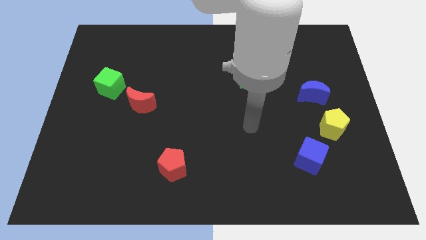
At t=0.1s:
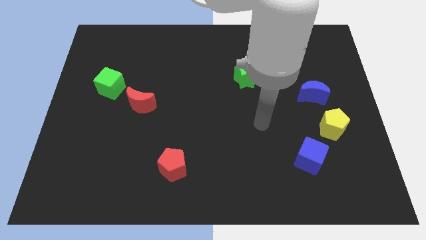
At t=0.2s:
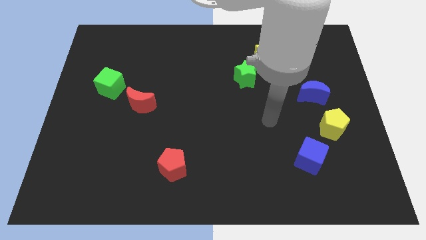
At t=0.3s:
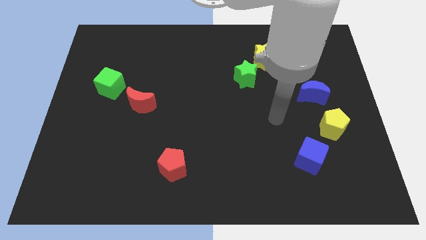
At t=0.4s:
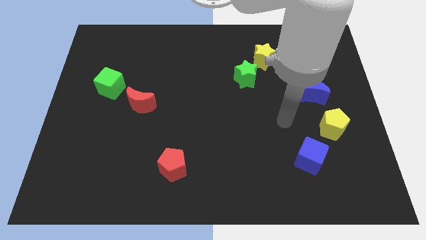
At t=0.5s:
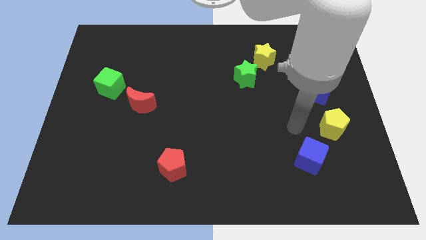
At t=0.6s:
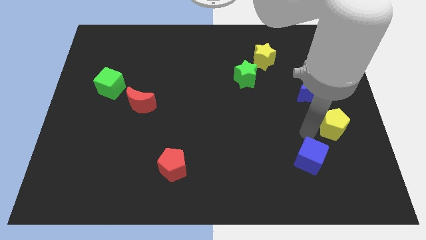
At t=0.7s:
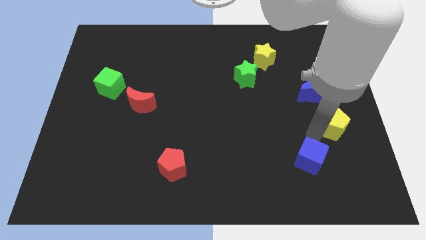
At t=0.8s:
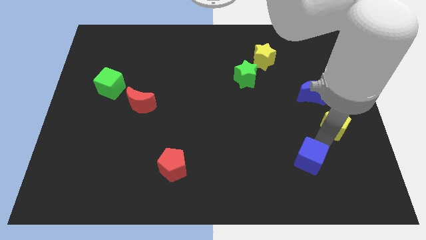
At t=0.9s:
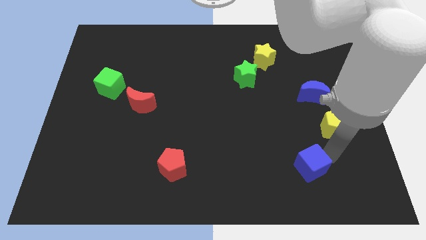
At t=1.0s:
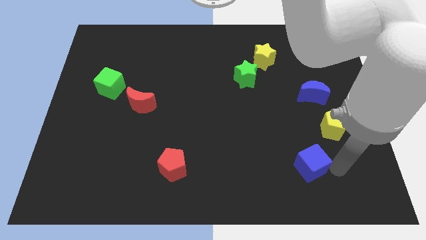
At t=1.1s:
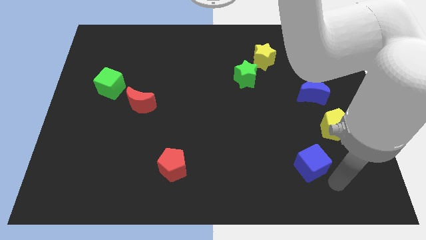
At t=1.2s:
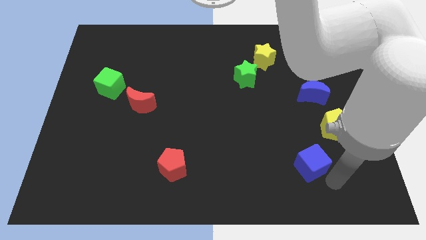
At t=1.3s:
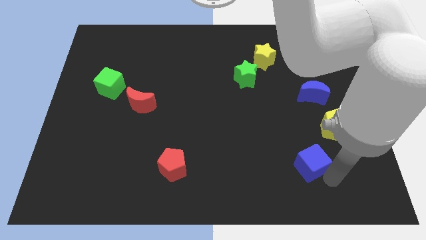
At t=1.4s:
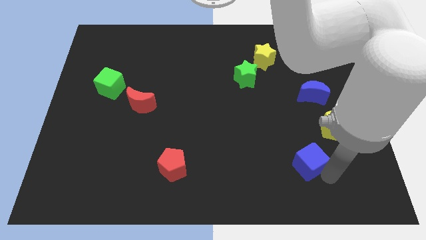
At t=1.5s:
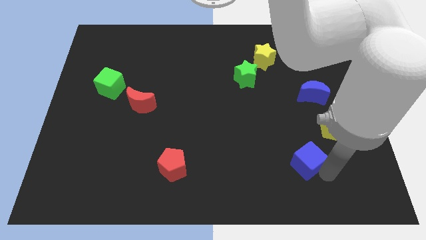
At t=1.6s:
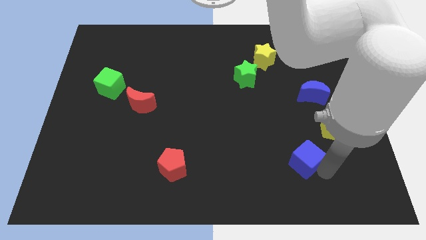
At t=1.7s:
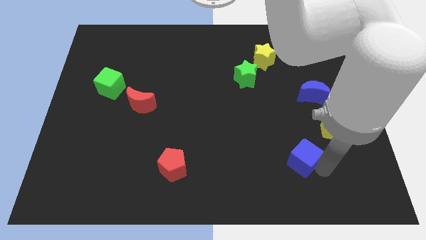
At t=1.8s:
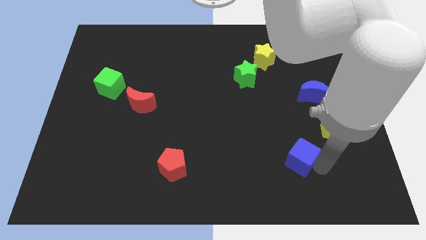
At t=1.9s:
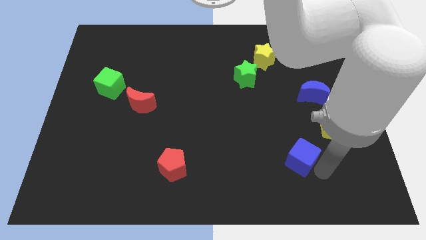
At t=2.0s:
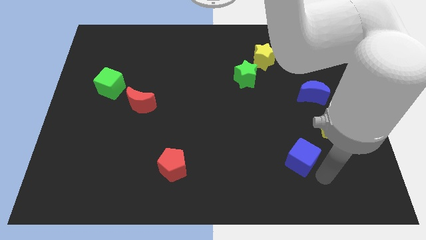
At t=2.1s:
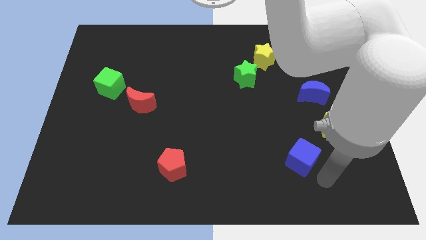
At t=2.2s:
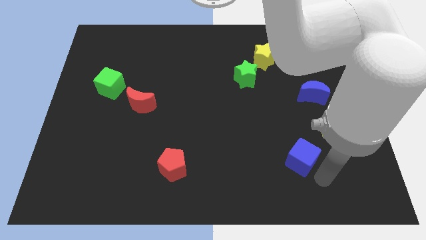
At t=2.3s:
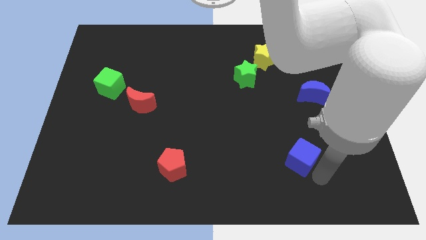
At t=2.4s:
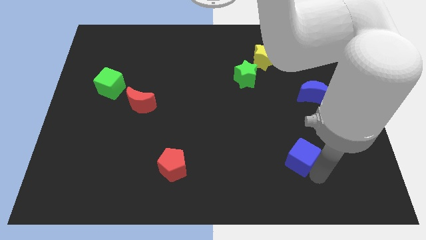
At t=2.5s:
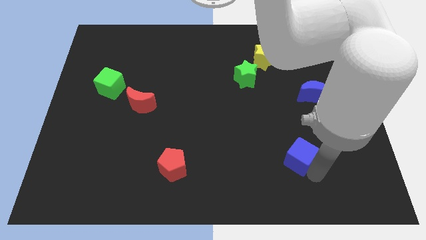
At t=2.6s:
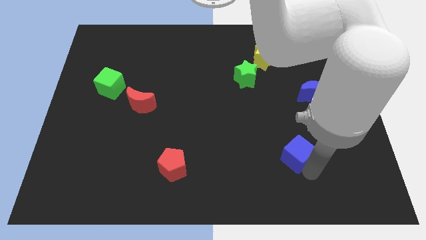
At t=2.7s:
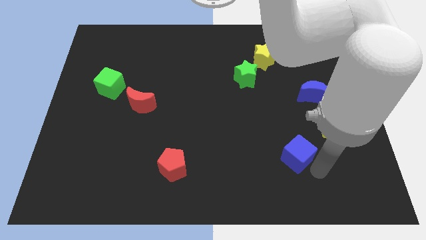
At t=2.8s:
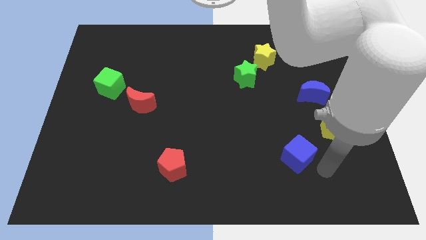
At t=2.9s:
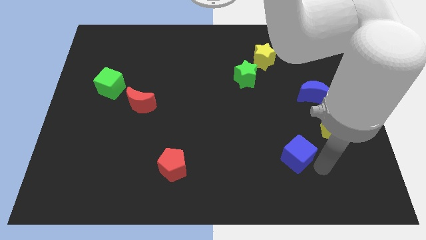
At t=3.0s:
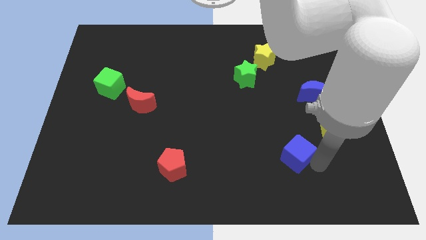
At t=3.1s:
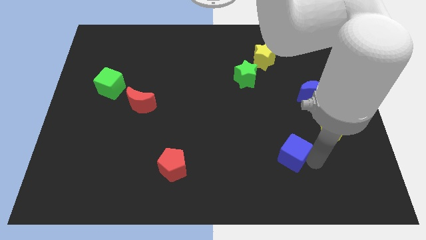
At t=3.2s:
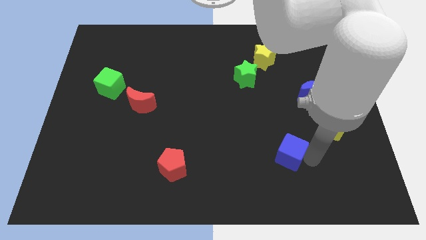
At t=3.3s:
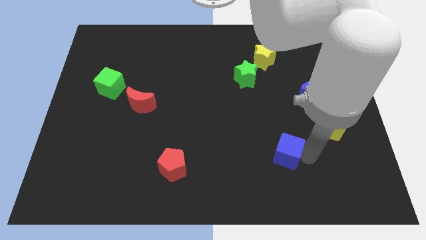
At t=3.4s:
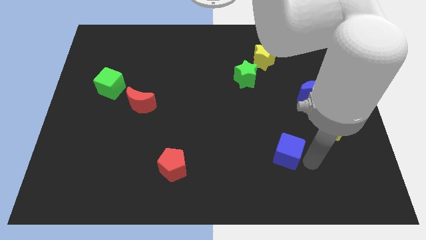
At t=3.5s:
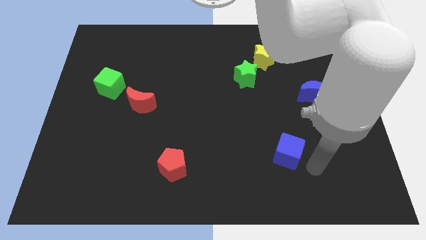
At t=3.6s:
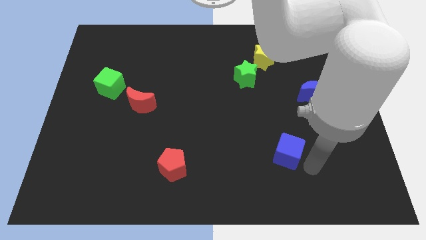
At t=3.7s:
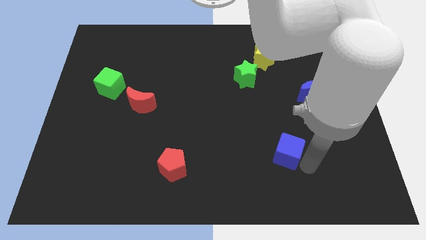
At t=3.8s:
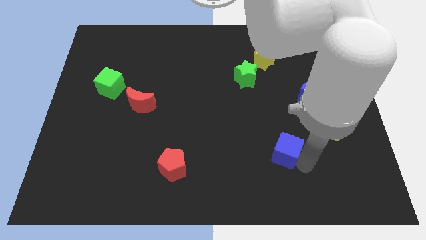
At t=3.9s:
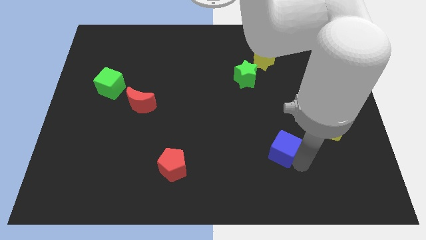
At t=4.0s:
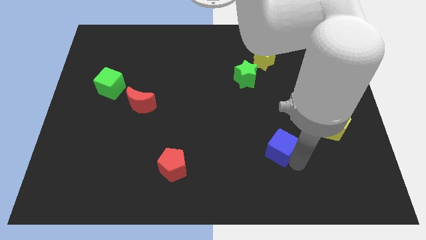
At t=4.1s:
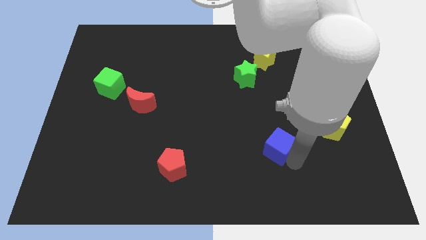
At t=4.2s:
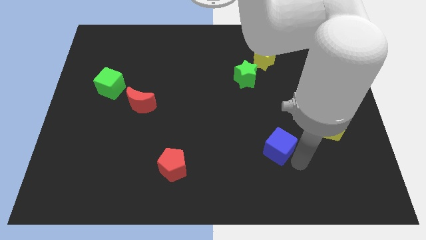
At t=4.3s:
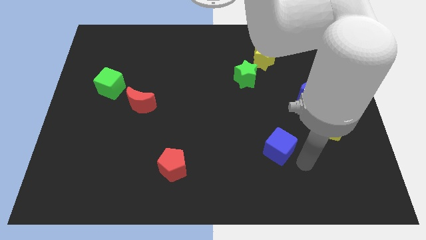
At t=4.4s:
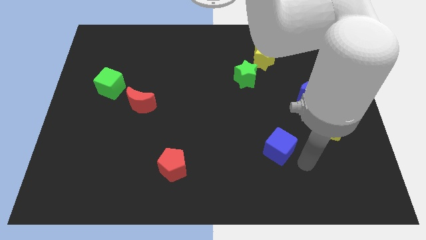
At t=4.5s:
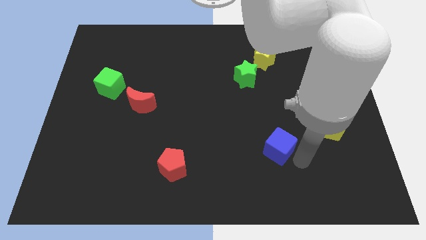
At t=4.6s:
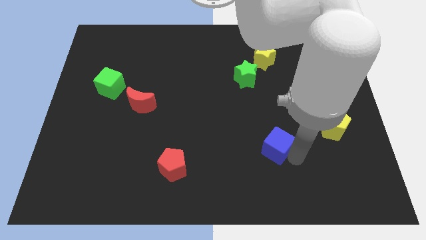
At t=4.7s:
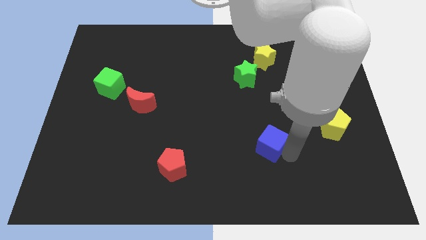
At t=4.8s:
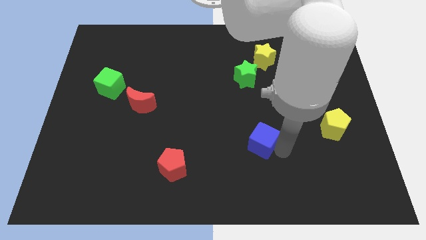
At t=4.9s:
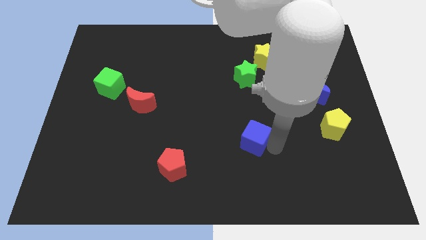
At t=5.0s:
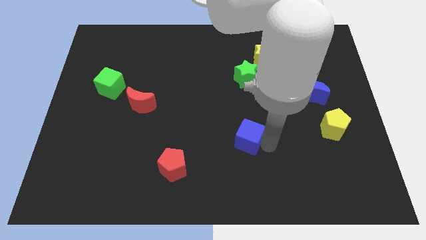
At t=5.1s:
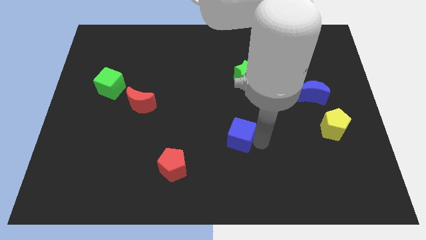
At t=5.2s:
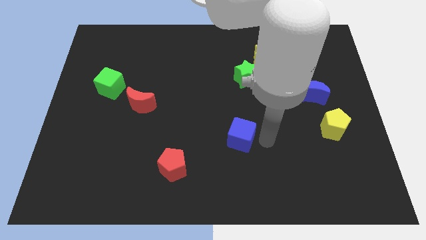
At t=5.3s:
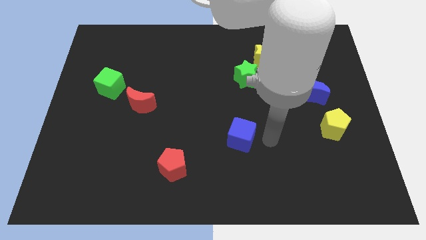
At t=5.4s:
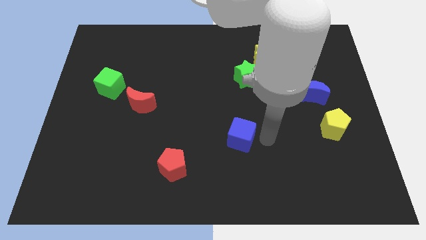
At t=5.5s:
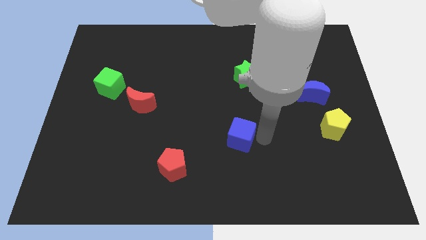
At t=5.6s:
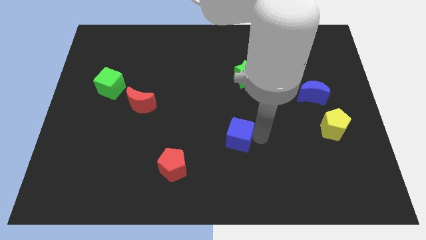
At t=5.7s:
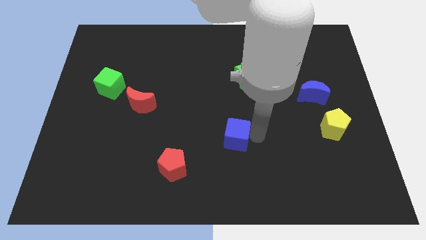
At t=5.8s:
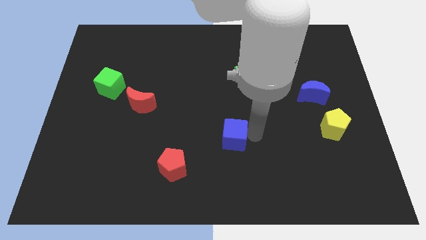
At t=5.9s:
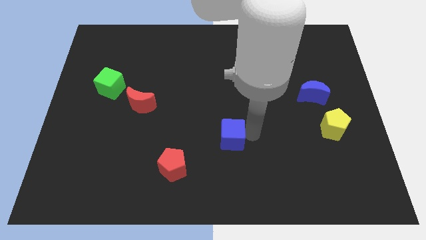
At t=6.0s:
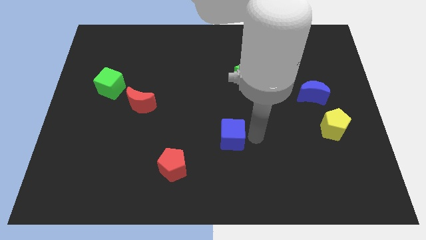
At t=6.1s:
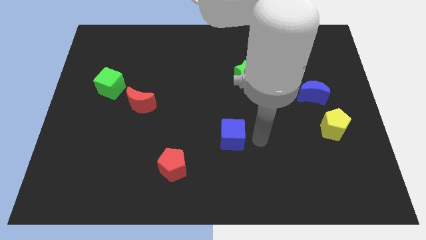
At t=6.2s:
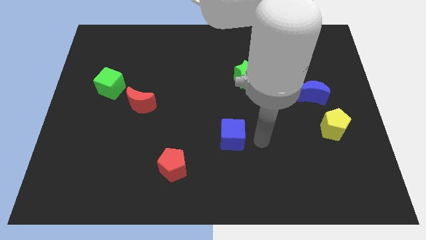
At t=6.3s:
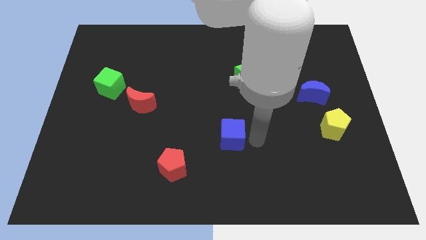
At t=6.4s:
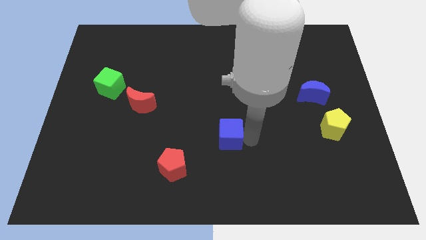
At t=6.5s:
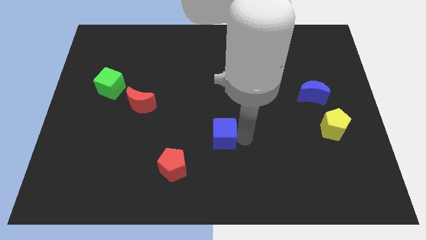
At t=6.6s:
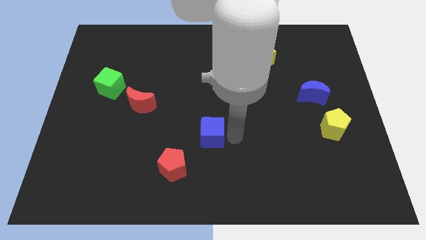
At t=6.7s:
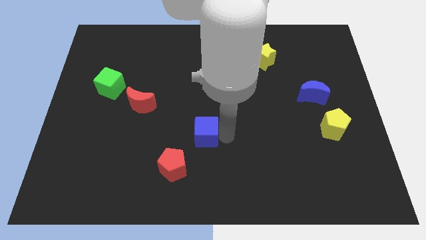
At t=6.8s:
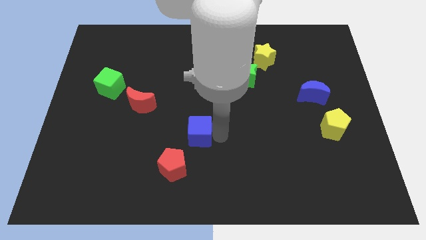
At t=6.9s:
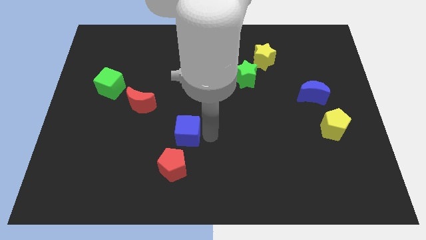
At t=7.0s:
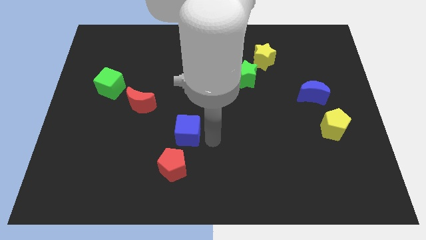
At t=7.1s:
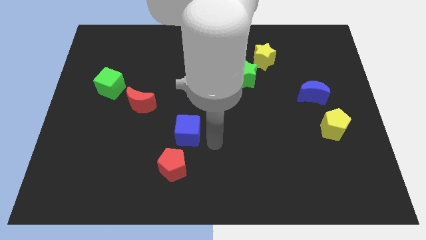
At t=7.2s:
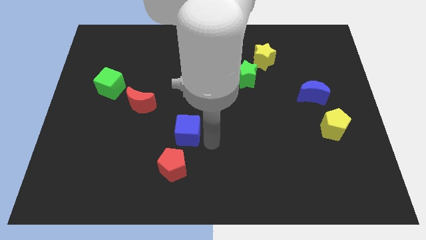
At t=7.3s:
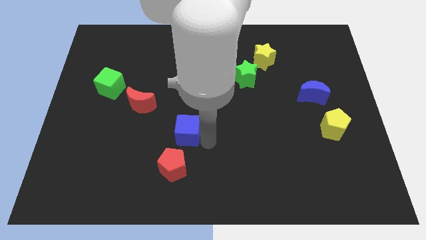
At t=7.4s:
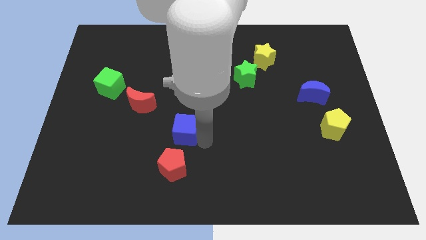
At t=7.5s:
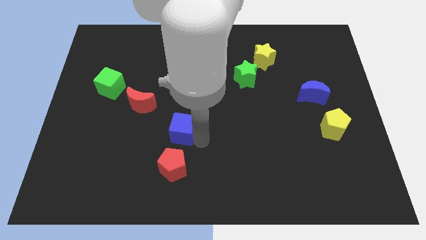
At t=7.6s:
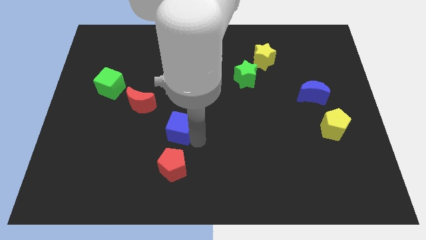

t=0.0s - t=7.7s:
slide the blue cube to the bottom right side of the red moon
